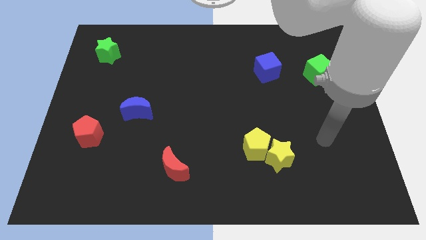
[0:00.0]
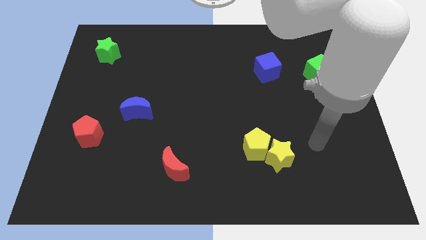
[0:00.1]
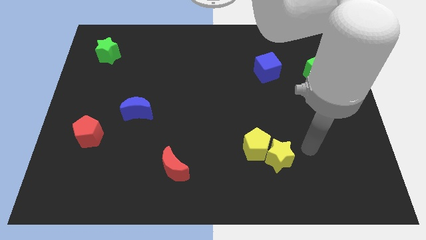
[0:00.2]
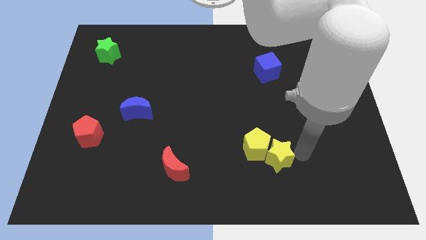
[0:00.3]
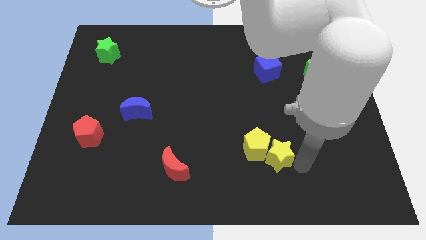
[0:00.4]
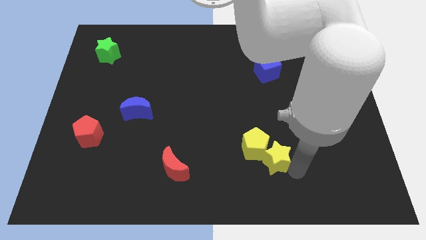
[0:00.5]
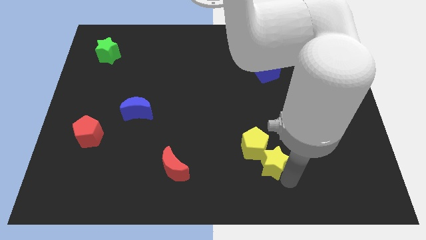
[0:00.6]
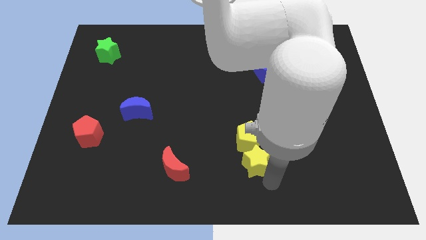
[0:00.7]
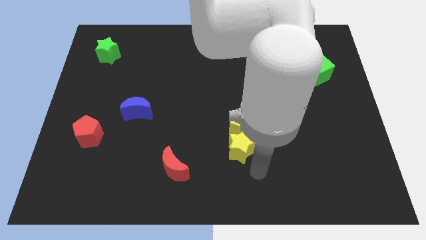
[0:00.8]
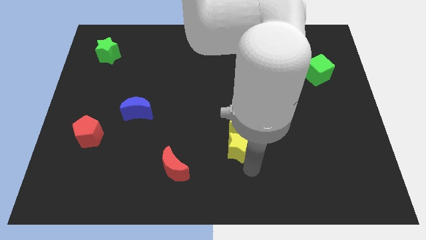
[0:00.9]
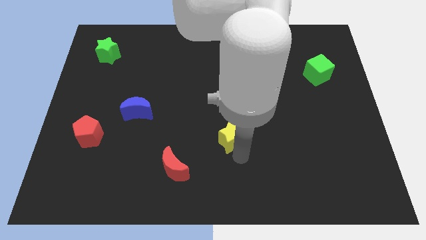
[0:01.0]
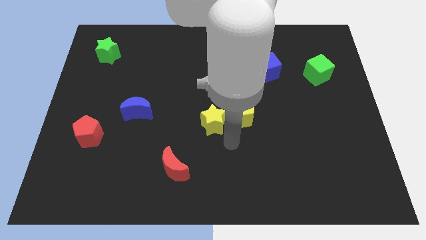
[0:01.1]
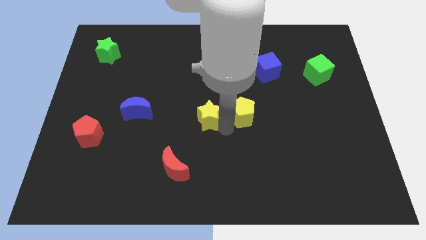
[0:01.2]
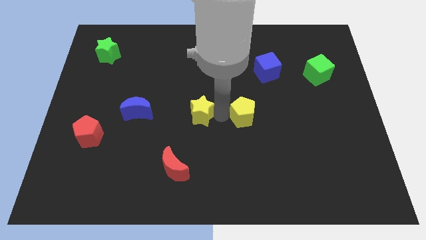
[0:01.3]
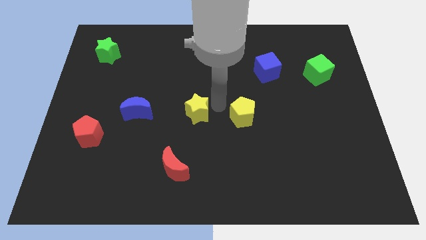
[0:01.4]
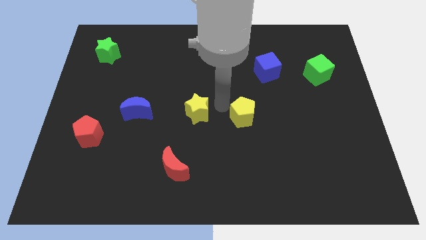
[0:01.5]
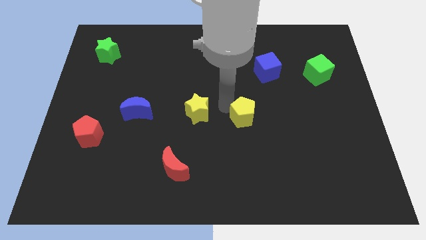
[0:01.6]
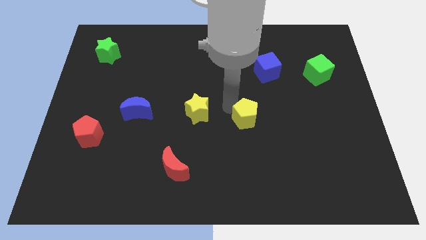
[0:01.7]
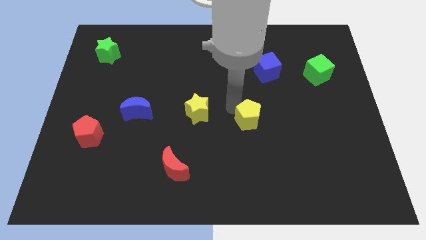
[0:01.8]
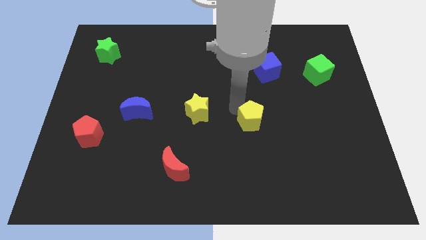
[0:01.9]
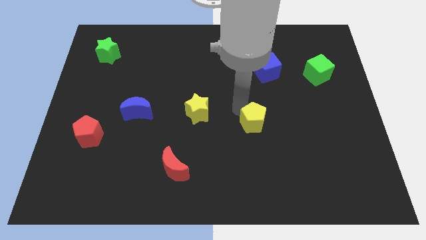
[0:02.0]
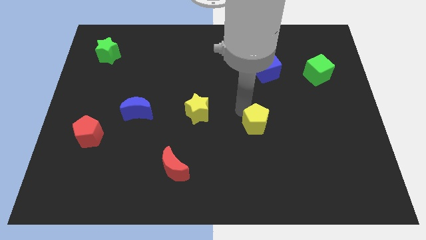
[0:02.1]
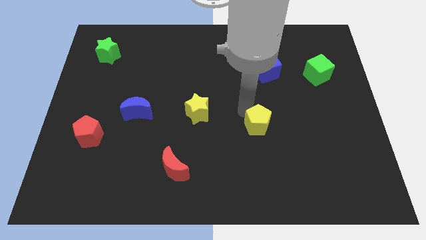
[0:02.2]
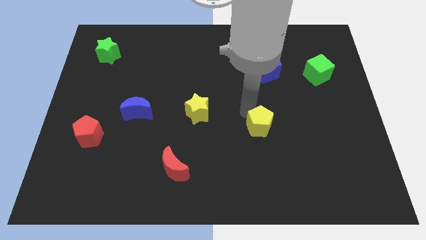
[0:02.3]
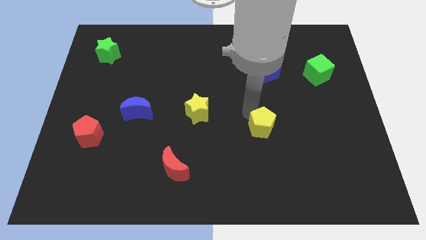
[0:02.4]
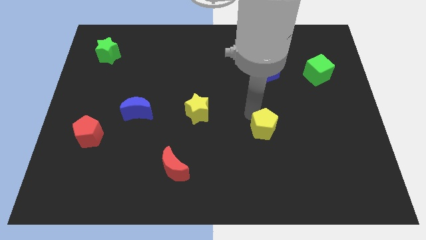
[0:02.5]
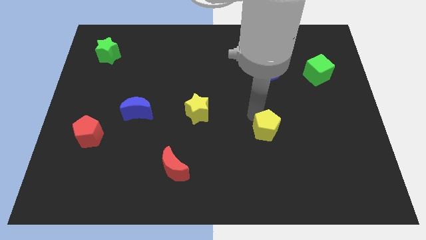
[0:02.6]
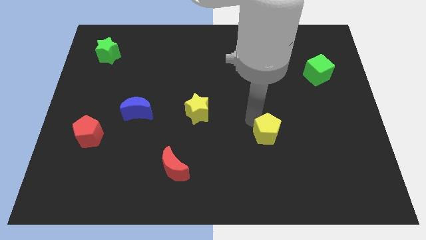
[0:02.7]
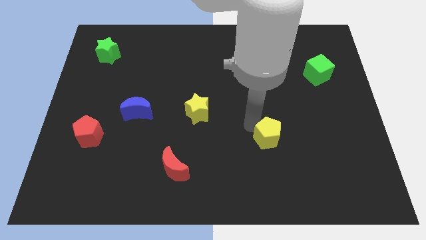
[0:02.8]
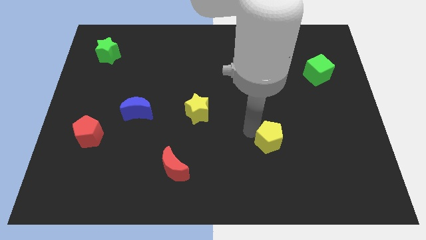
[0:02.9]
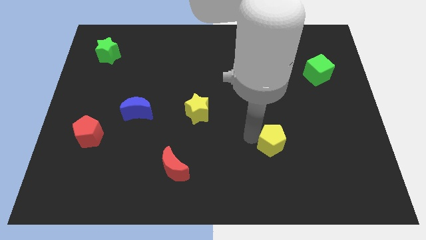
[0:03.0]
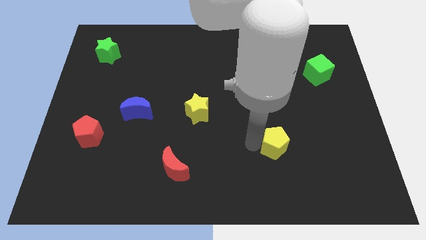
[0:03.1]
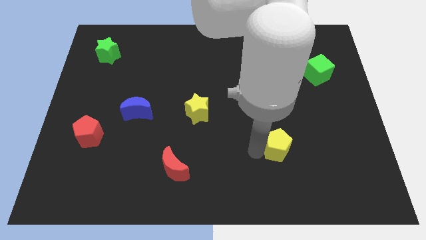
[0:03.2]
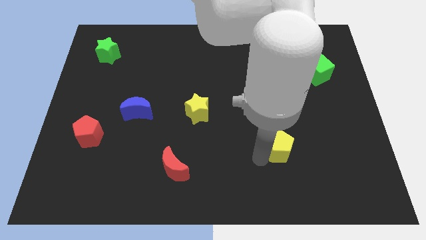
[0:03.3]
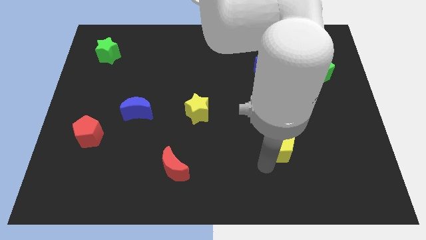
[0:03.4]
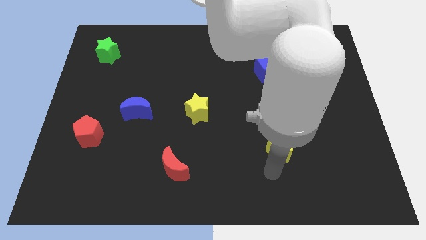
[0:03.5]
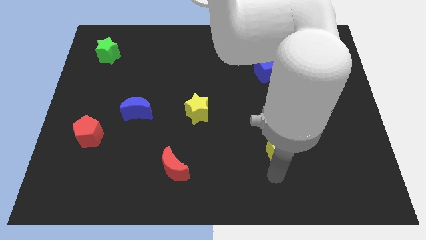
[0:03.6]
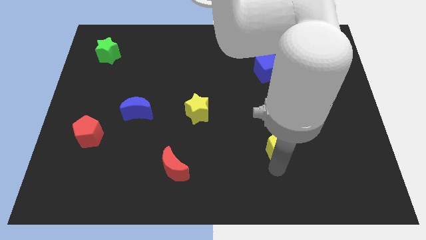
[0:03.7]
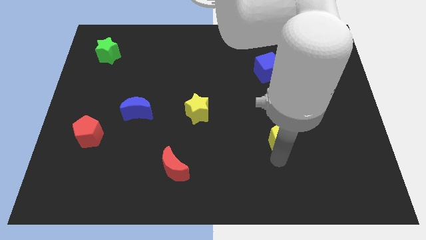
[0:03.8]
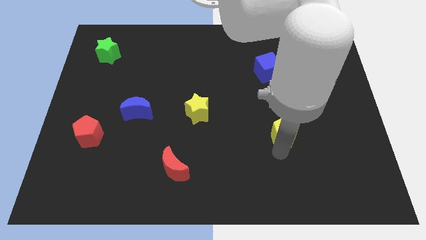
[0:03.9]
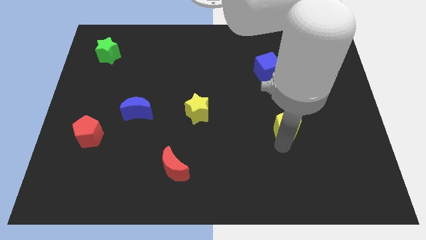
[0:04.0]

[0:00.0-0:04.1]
slightly push the yellow pentagon upwards and to the right

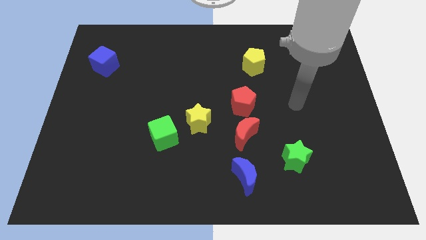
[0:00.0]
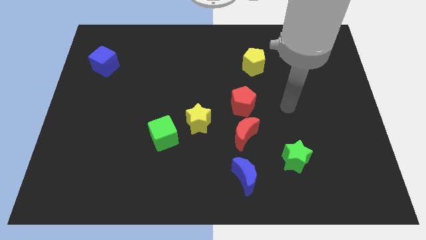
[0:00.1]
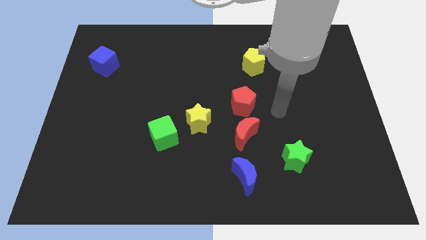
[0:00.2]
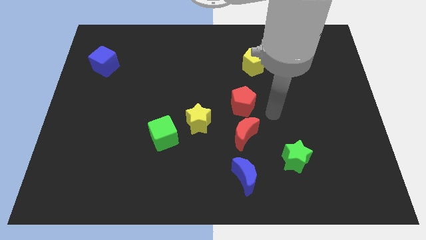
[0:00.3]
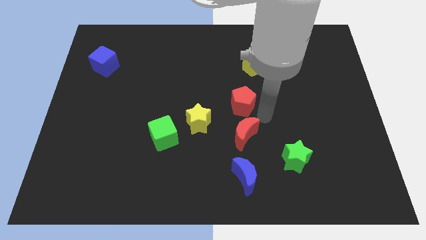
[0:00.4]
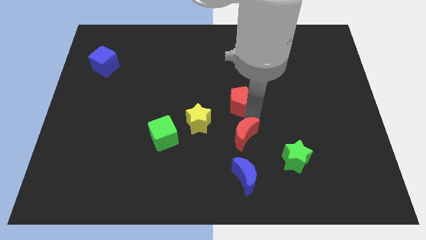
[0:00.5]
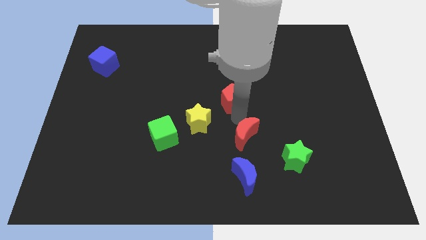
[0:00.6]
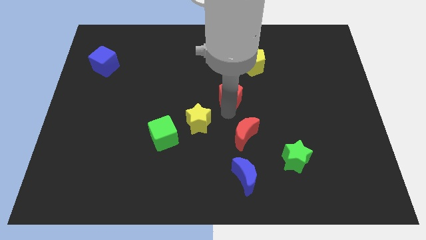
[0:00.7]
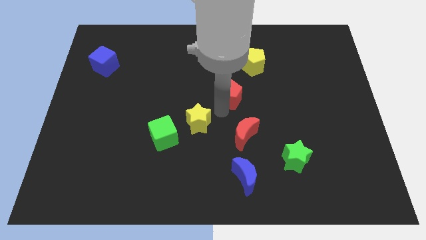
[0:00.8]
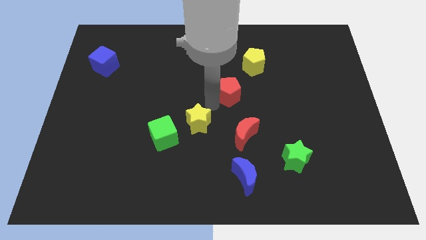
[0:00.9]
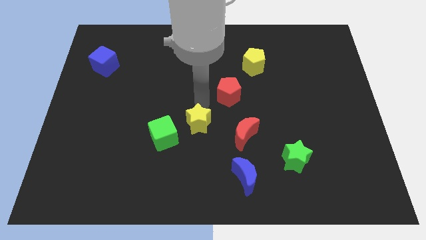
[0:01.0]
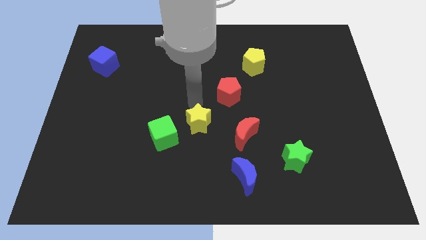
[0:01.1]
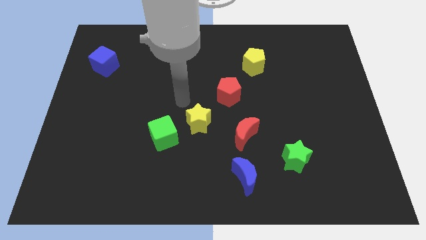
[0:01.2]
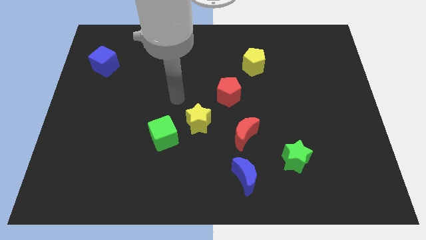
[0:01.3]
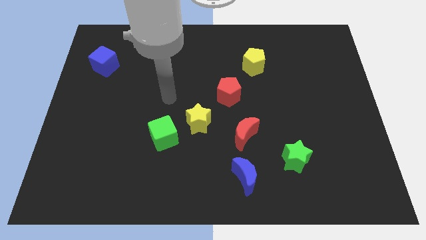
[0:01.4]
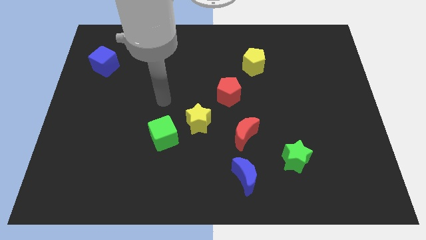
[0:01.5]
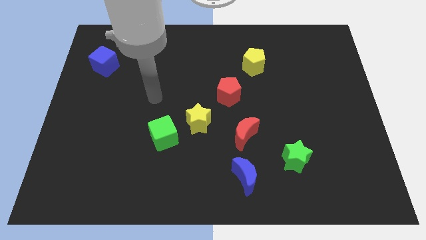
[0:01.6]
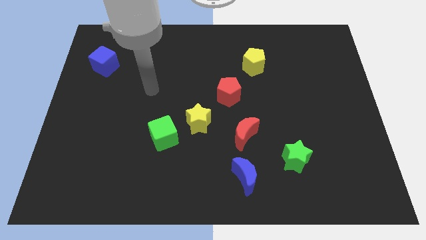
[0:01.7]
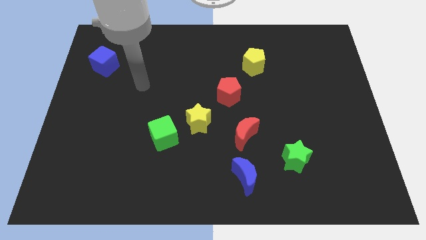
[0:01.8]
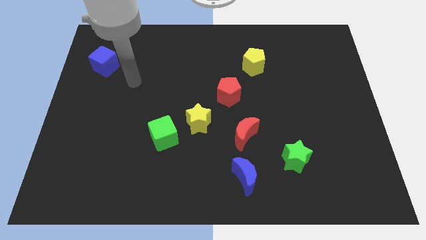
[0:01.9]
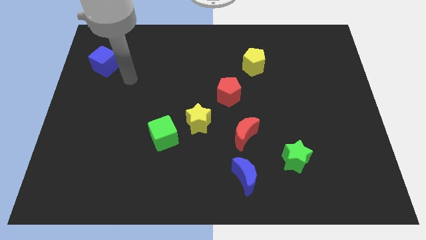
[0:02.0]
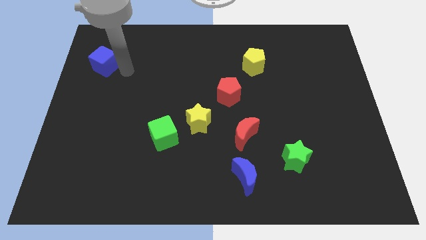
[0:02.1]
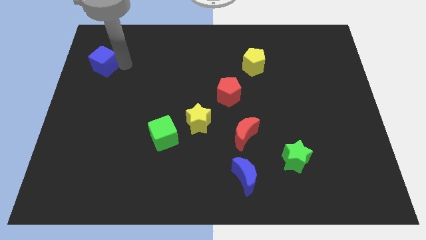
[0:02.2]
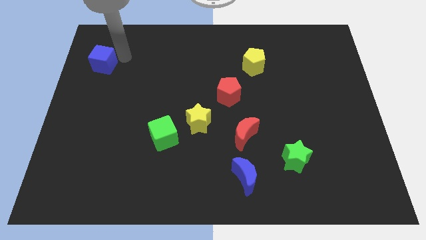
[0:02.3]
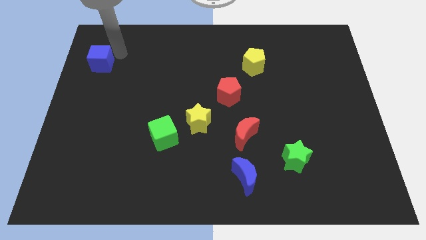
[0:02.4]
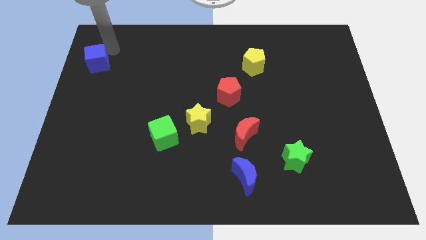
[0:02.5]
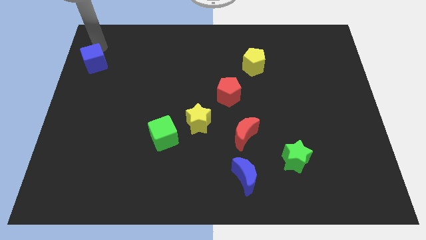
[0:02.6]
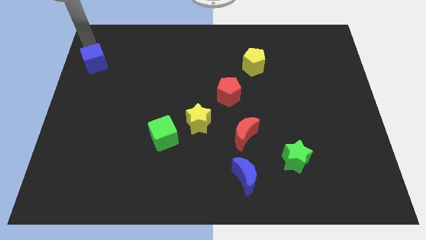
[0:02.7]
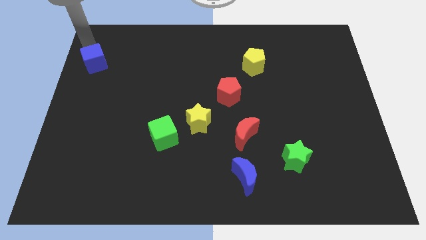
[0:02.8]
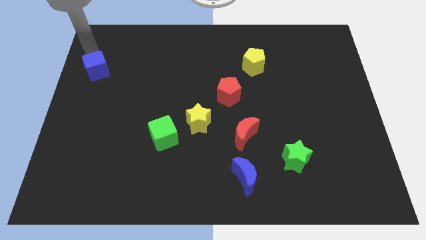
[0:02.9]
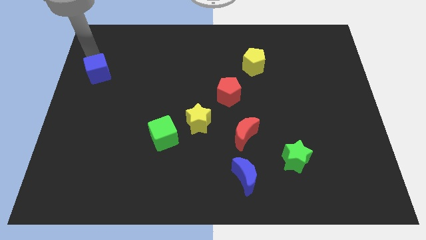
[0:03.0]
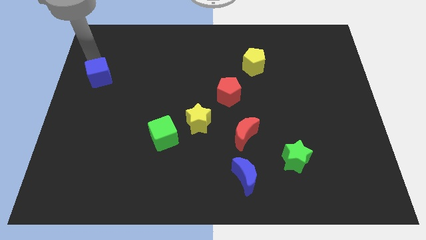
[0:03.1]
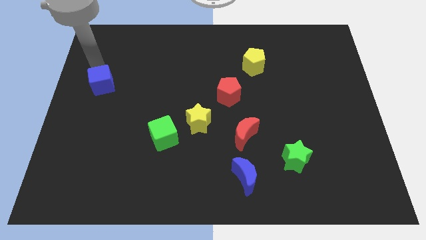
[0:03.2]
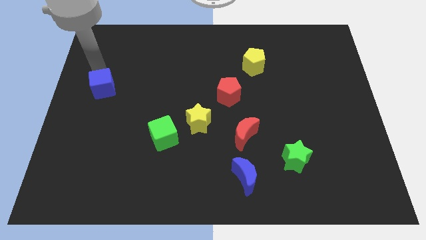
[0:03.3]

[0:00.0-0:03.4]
slide the blue cube down somewhat
